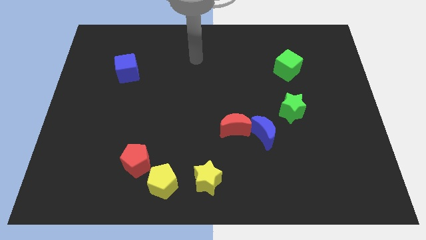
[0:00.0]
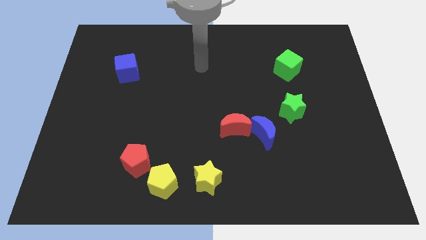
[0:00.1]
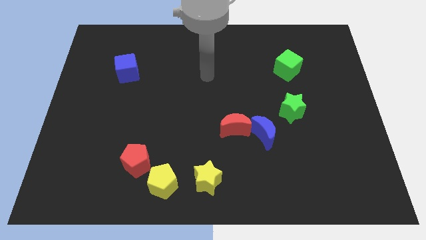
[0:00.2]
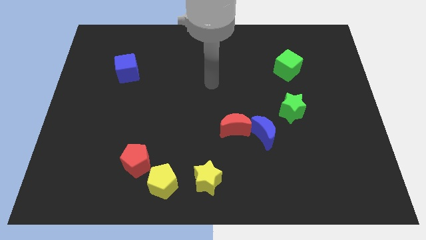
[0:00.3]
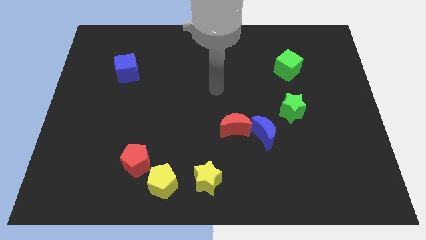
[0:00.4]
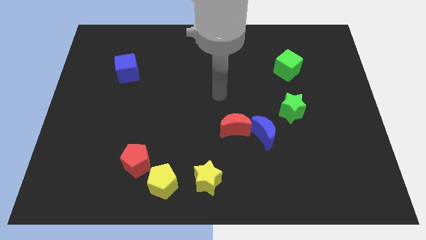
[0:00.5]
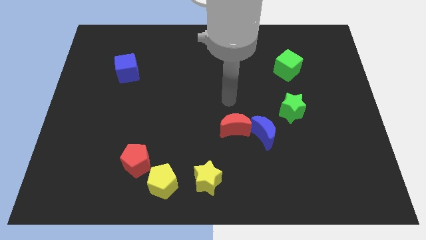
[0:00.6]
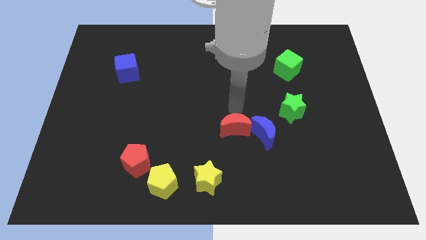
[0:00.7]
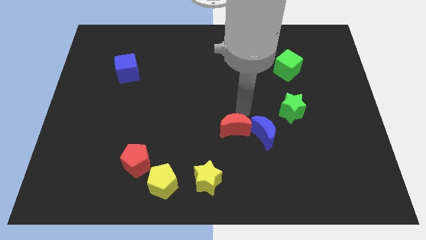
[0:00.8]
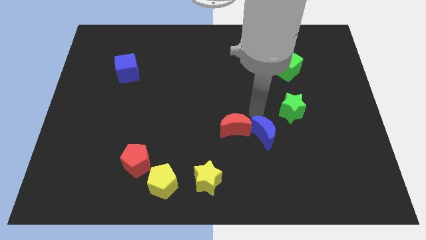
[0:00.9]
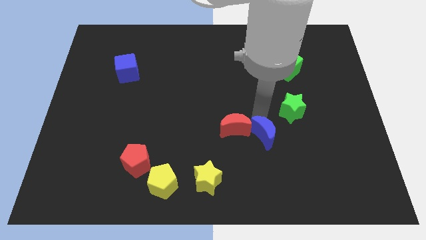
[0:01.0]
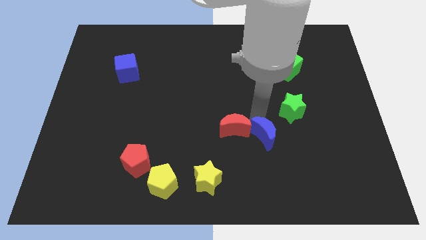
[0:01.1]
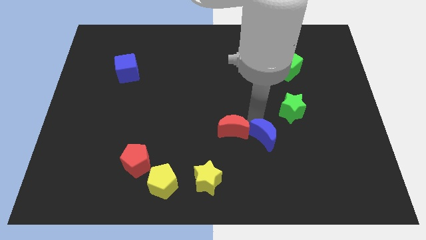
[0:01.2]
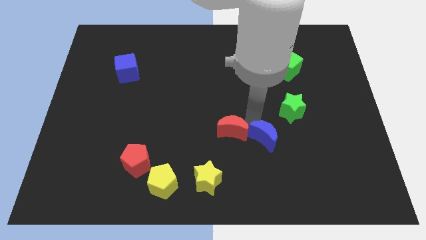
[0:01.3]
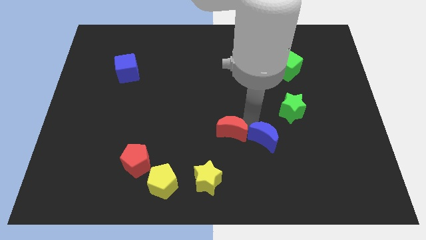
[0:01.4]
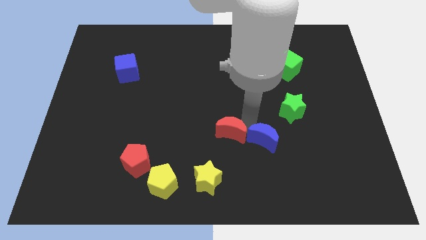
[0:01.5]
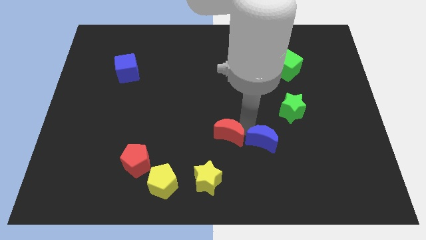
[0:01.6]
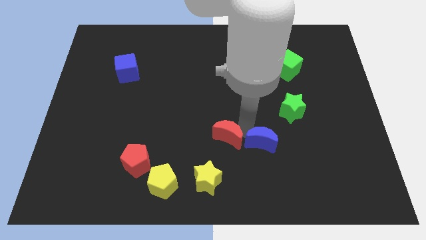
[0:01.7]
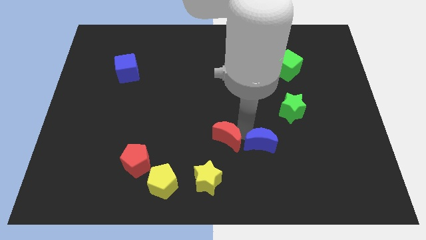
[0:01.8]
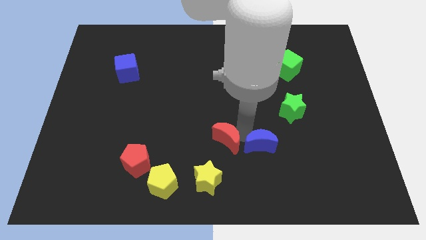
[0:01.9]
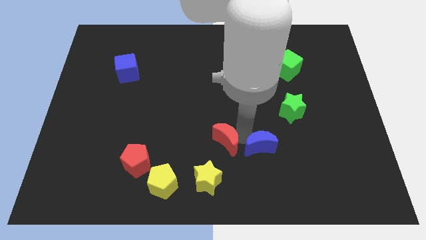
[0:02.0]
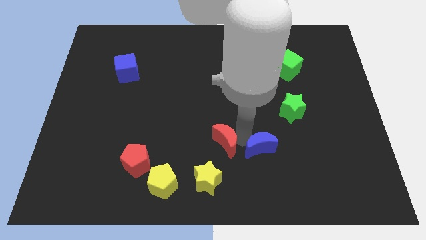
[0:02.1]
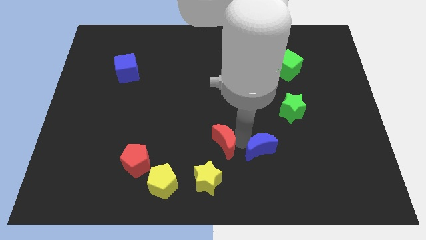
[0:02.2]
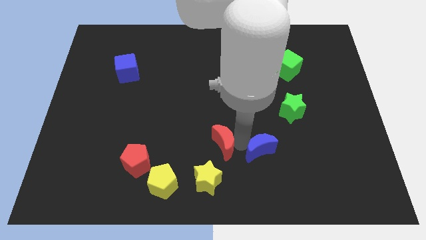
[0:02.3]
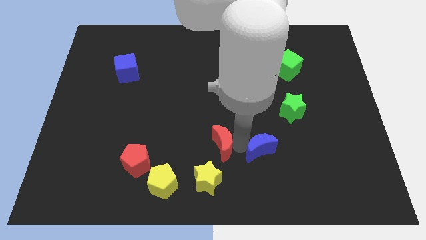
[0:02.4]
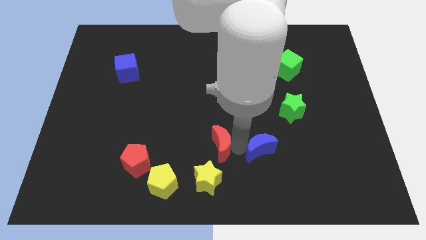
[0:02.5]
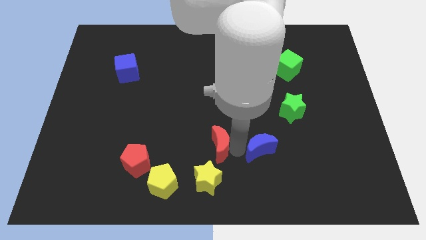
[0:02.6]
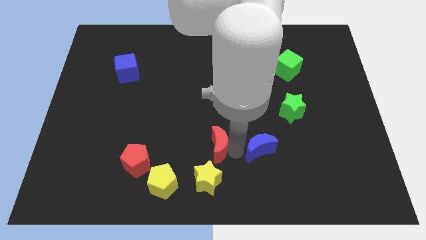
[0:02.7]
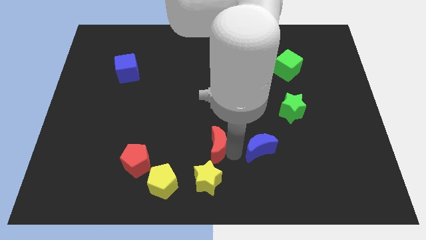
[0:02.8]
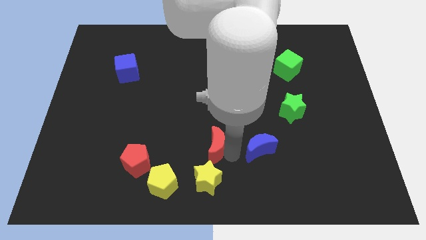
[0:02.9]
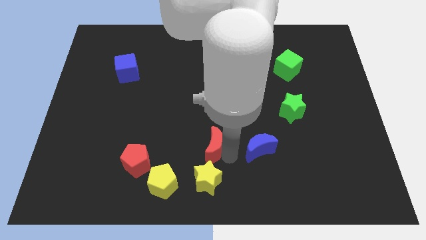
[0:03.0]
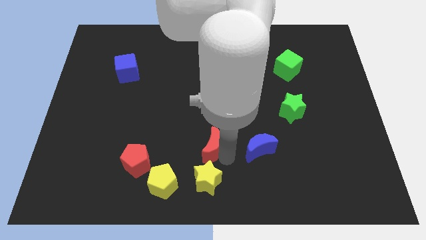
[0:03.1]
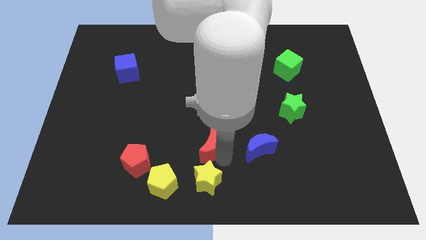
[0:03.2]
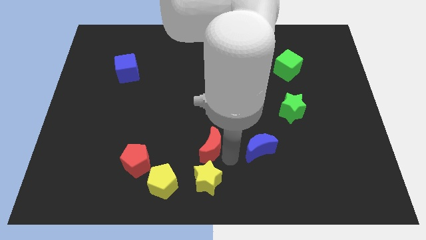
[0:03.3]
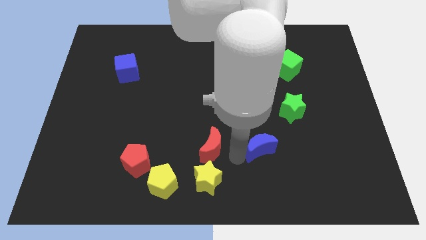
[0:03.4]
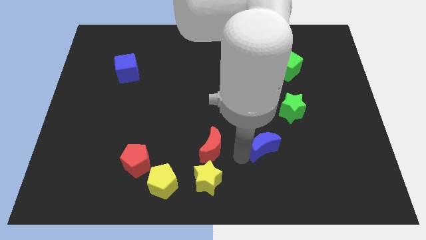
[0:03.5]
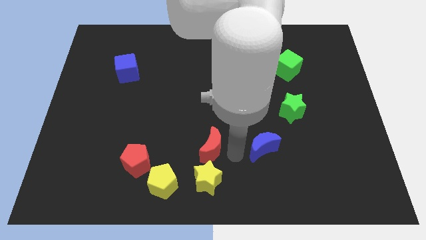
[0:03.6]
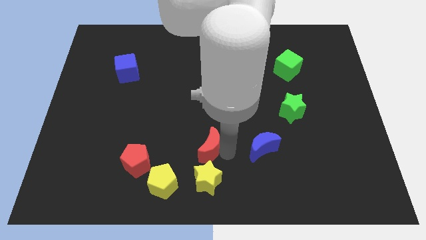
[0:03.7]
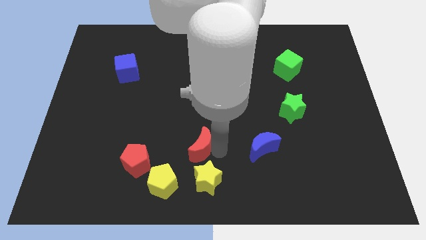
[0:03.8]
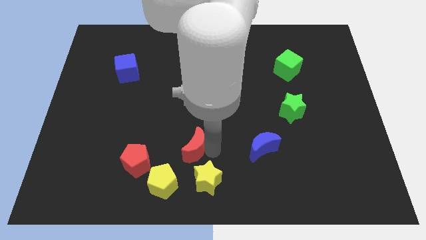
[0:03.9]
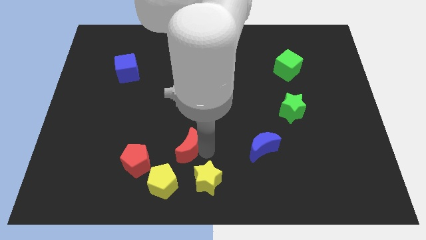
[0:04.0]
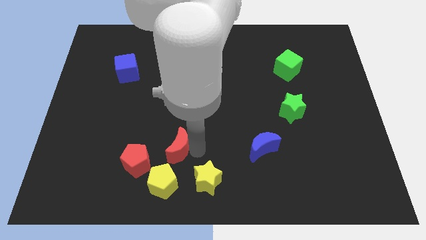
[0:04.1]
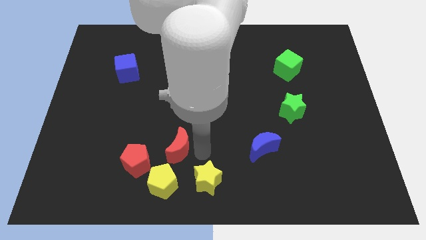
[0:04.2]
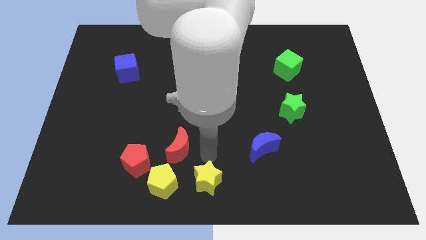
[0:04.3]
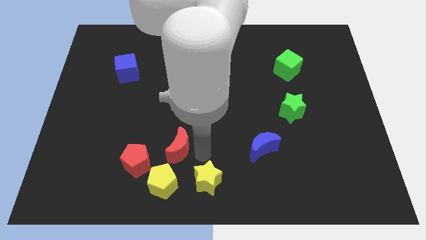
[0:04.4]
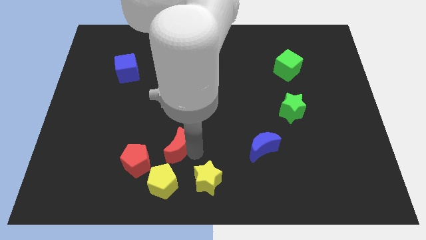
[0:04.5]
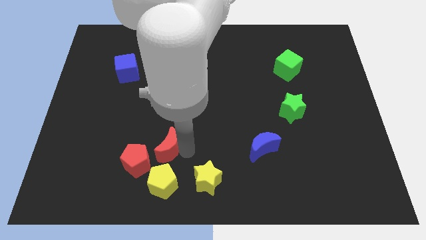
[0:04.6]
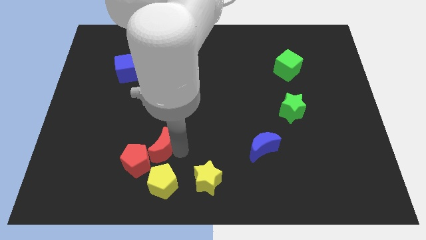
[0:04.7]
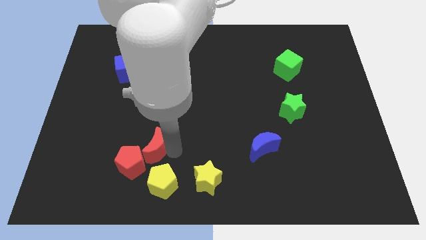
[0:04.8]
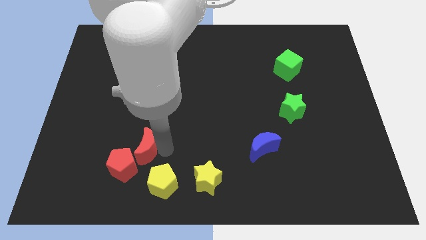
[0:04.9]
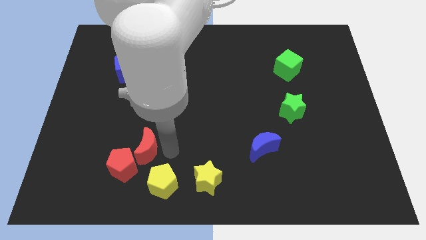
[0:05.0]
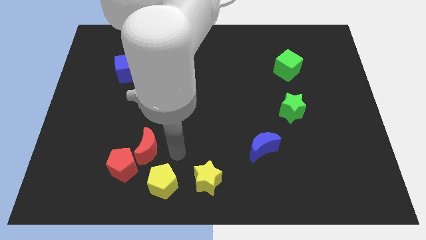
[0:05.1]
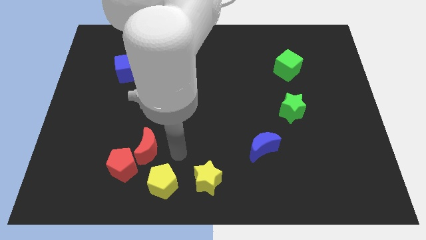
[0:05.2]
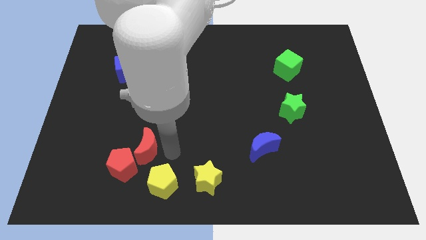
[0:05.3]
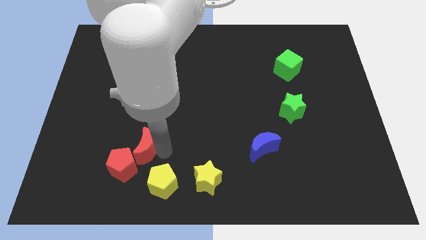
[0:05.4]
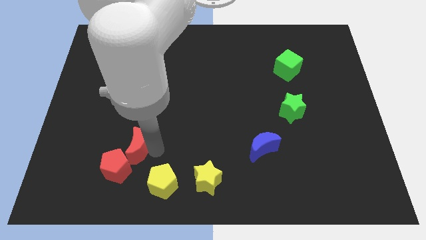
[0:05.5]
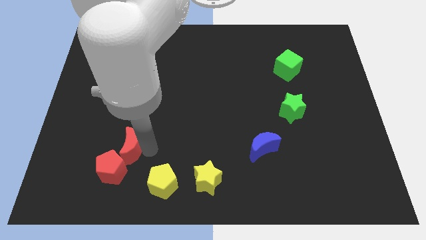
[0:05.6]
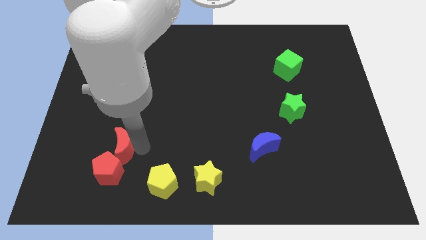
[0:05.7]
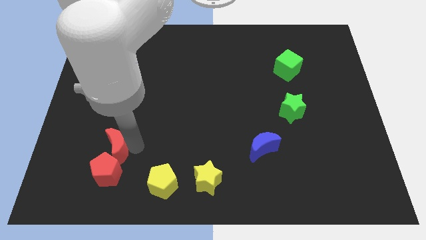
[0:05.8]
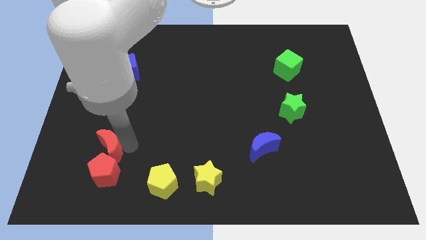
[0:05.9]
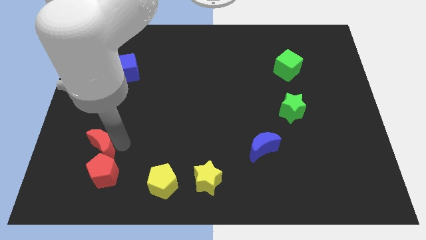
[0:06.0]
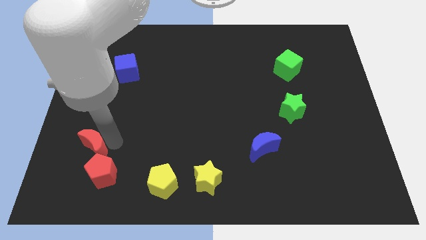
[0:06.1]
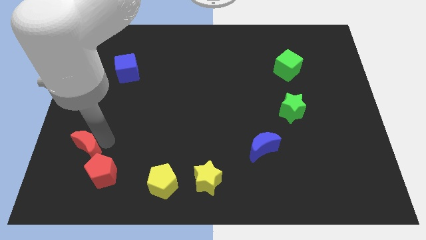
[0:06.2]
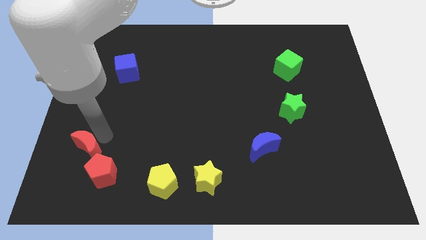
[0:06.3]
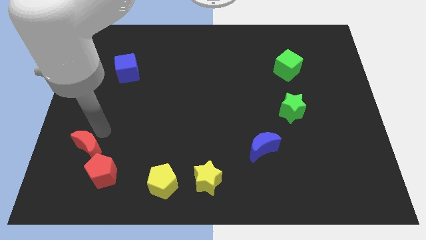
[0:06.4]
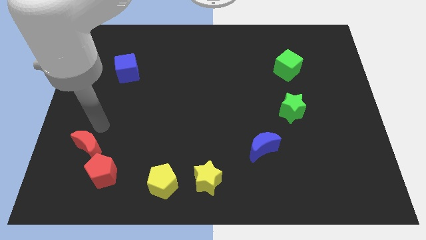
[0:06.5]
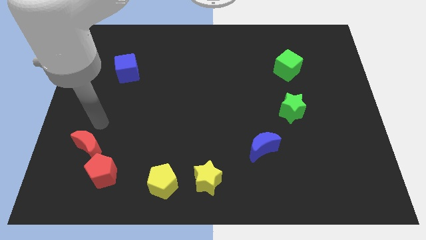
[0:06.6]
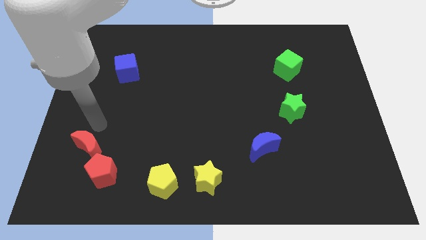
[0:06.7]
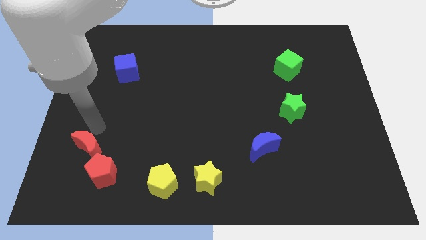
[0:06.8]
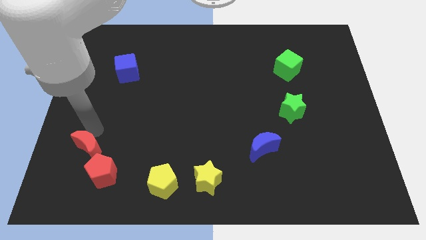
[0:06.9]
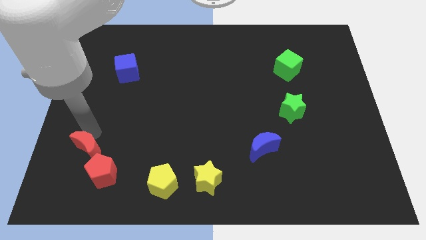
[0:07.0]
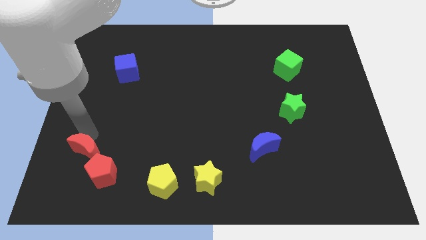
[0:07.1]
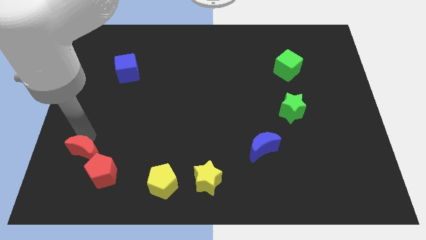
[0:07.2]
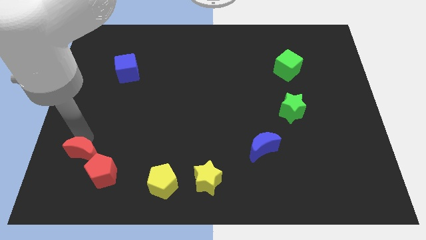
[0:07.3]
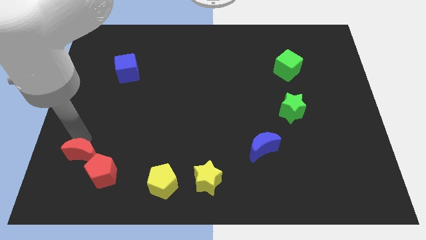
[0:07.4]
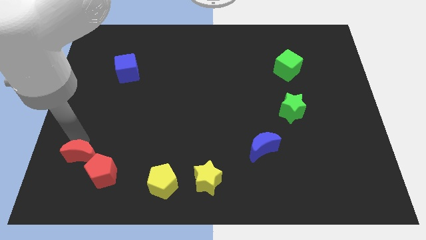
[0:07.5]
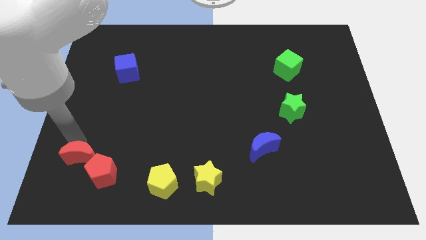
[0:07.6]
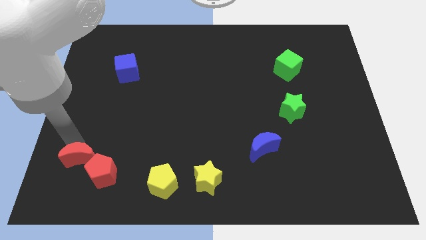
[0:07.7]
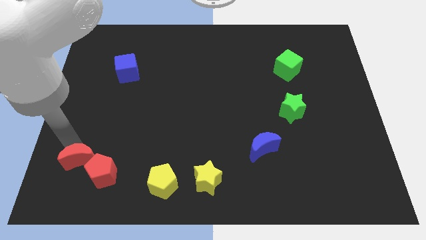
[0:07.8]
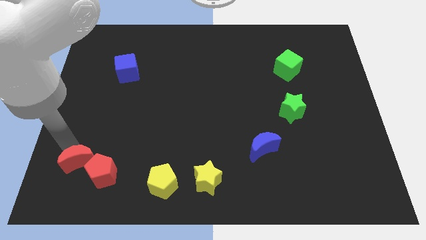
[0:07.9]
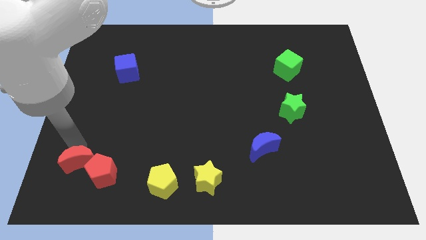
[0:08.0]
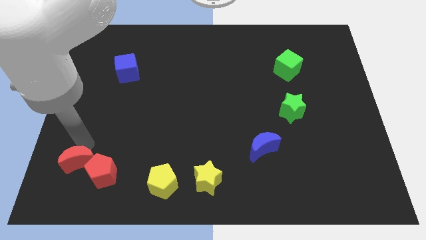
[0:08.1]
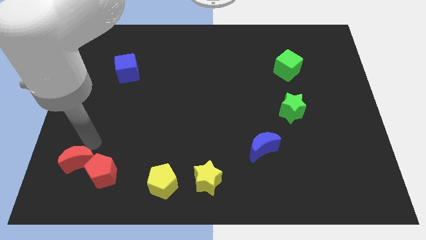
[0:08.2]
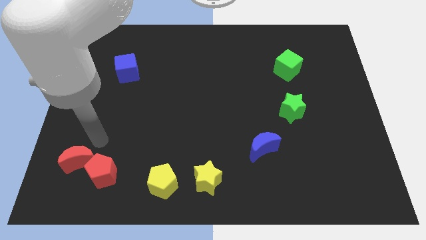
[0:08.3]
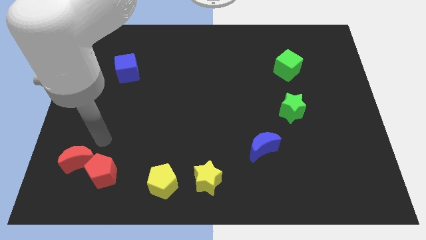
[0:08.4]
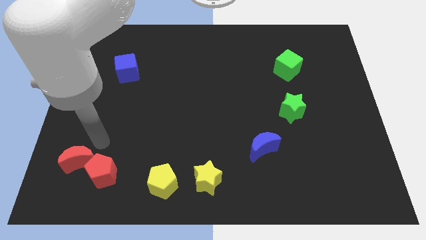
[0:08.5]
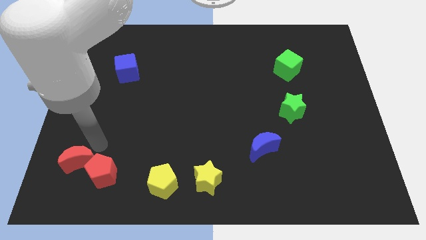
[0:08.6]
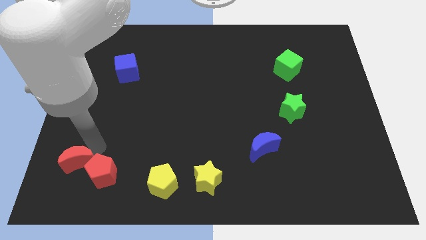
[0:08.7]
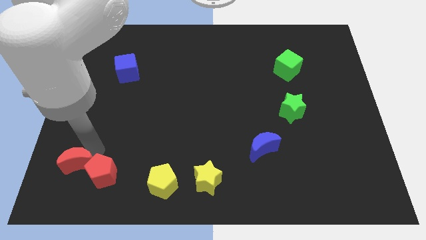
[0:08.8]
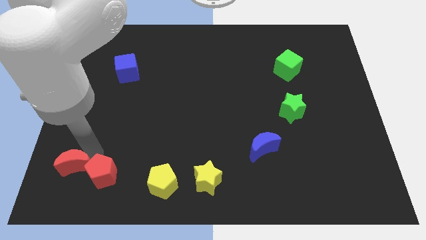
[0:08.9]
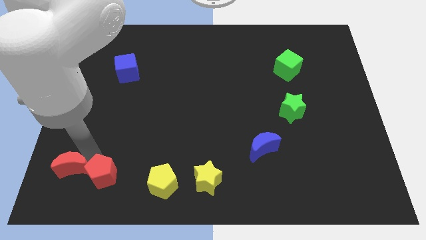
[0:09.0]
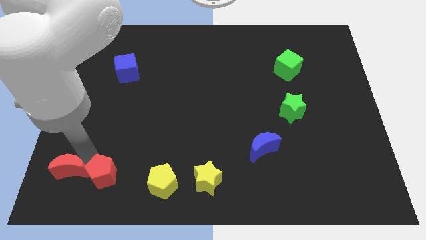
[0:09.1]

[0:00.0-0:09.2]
slide the red moon to the bottom left corner
